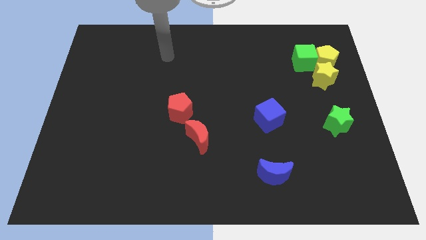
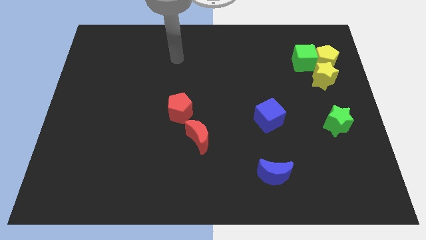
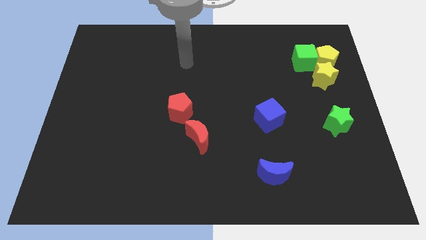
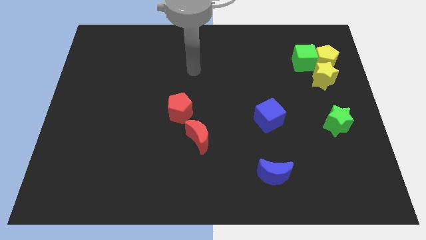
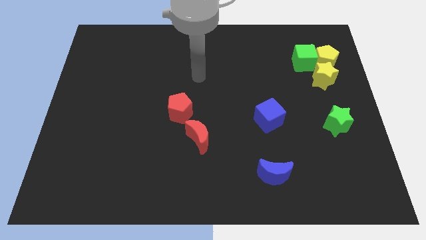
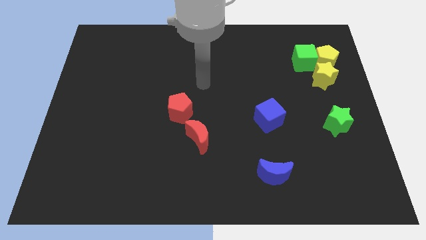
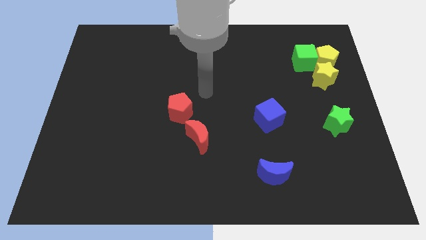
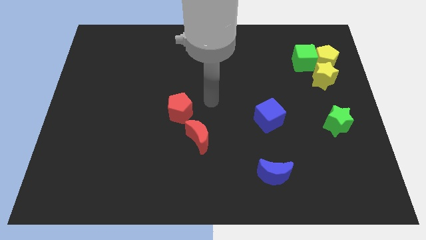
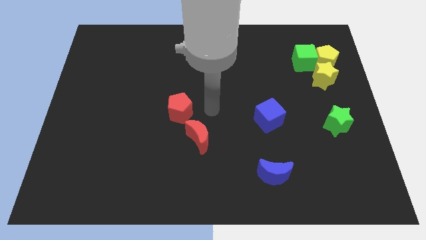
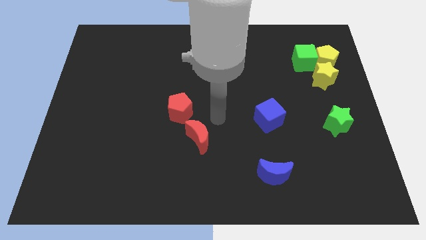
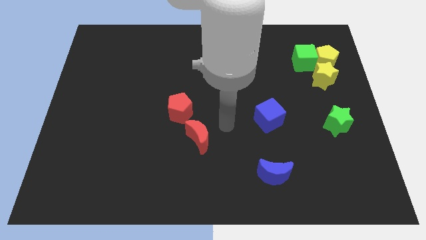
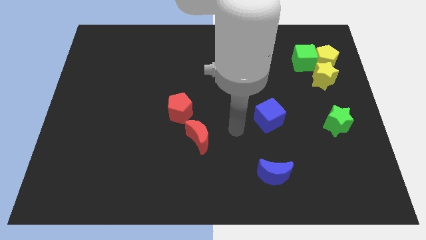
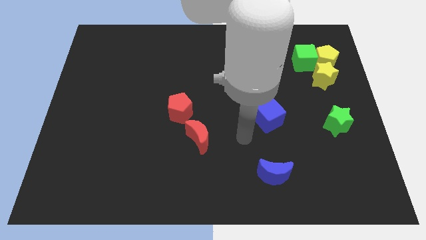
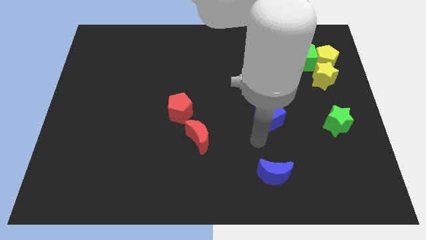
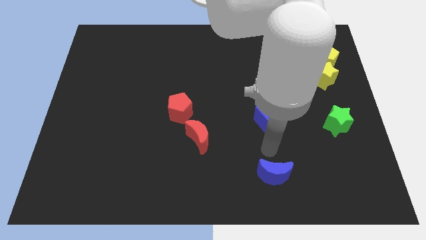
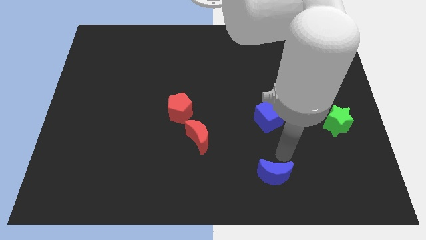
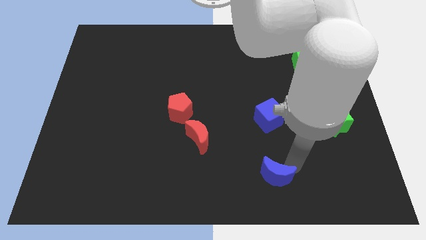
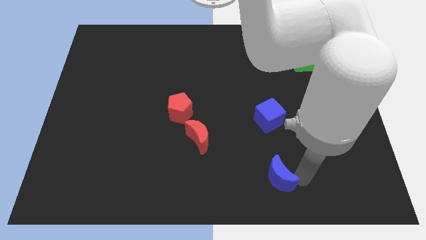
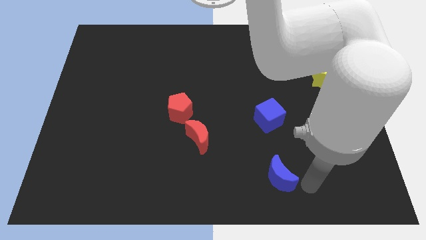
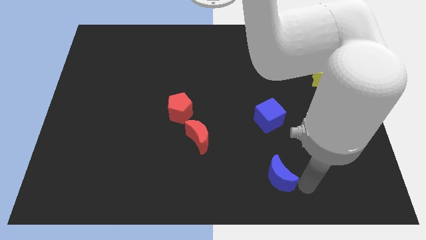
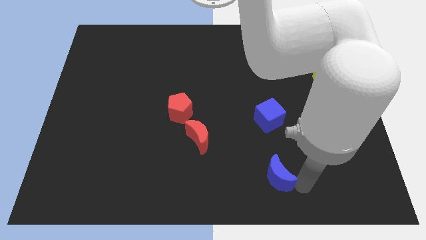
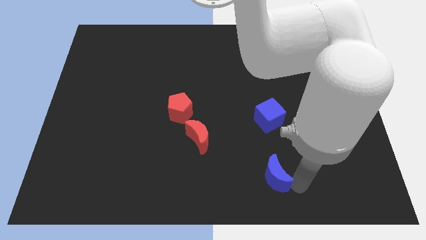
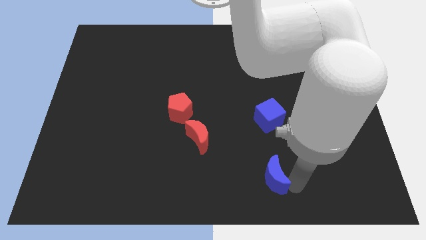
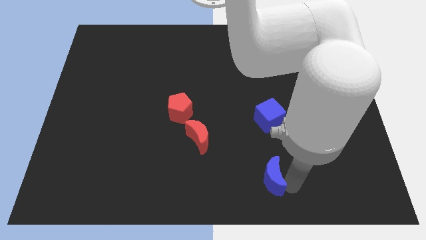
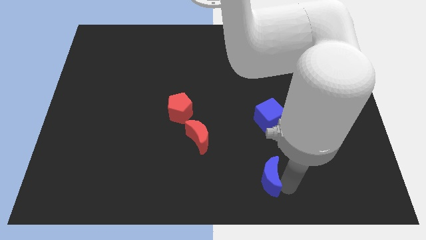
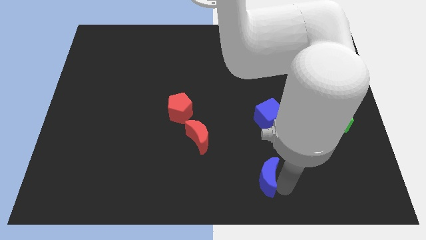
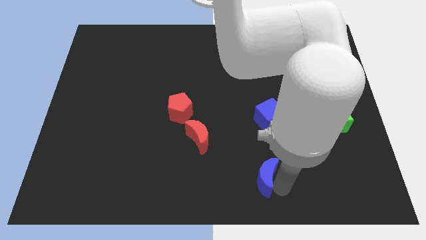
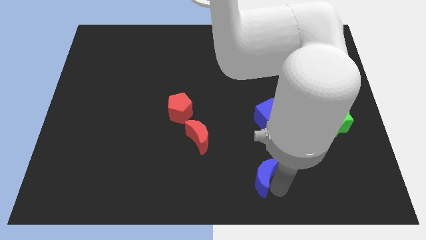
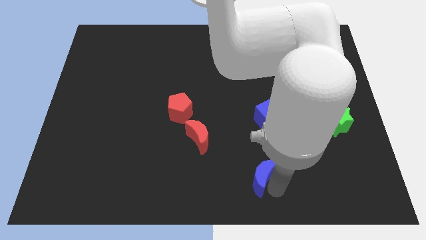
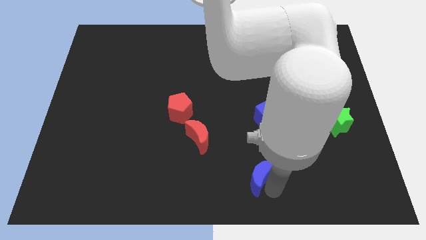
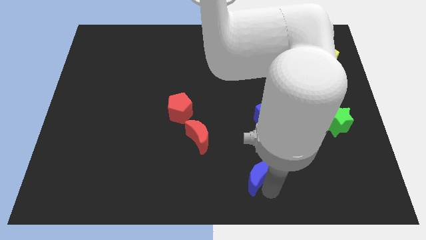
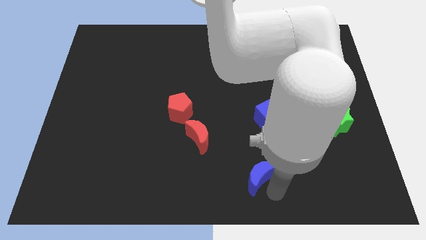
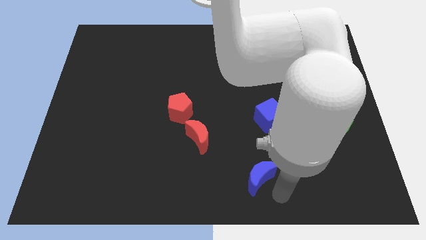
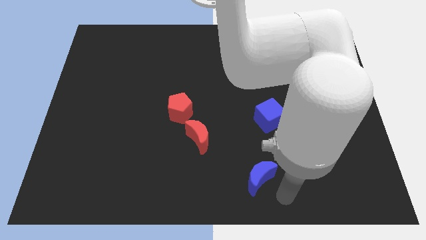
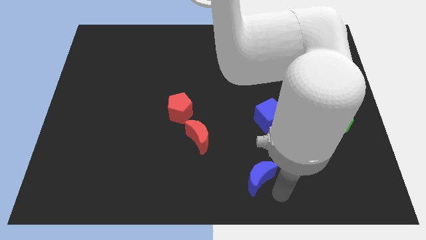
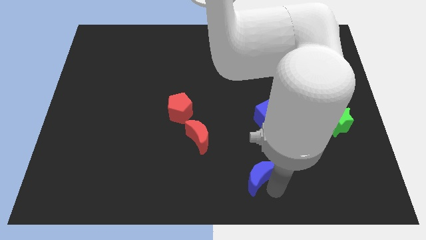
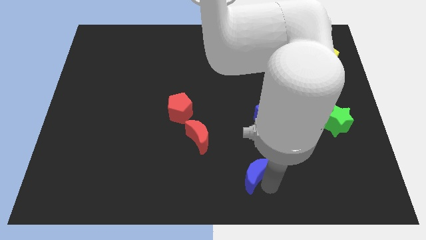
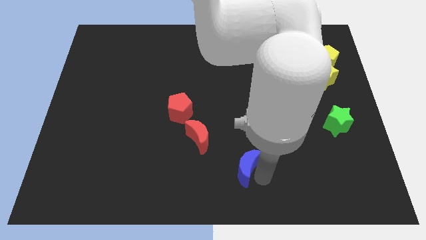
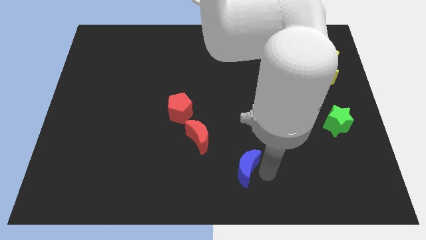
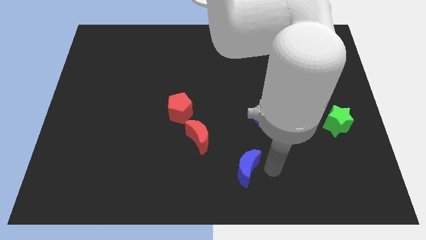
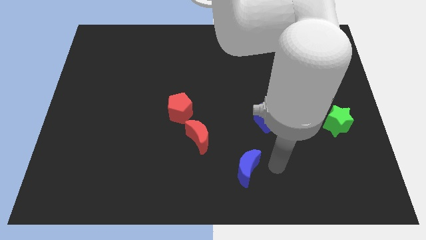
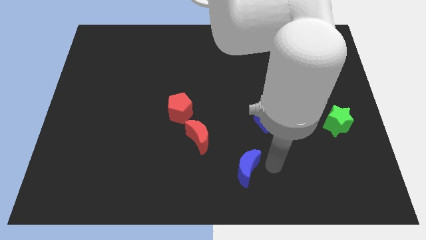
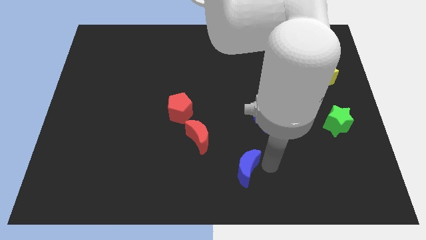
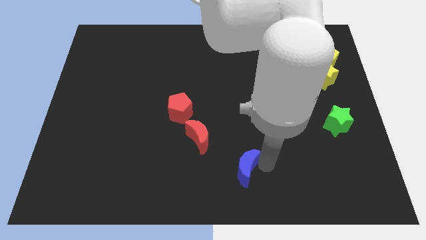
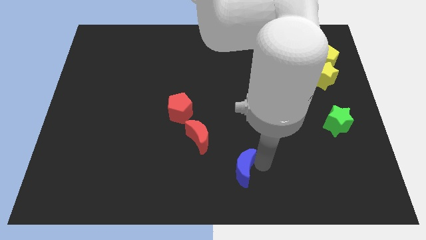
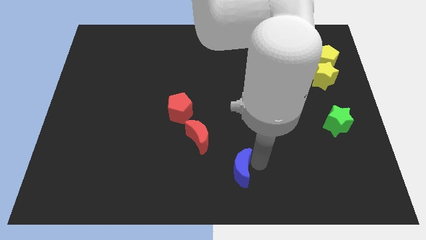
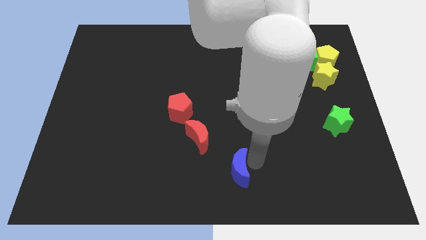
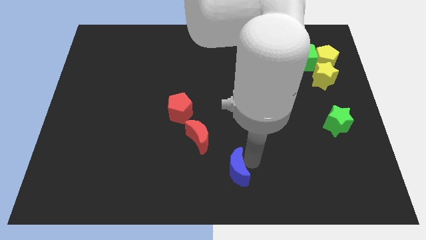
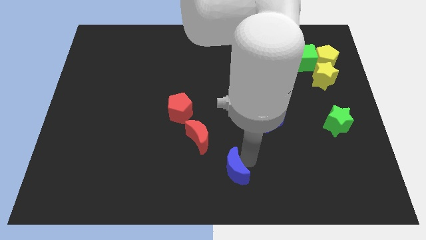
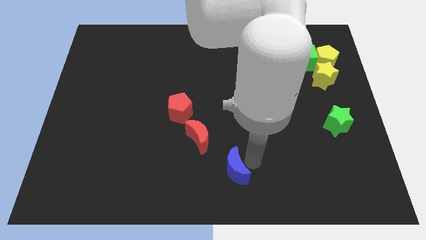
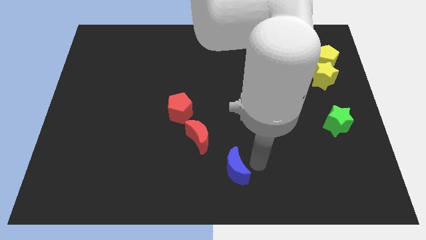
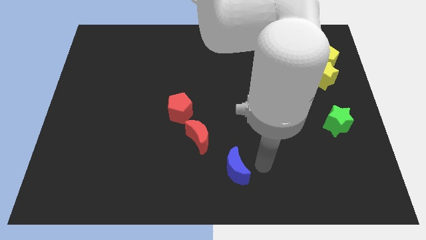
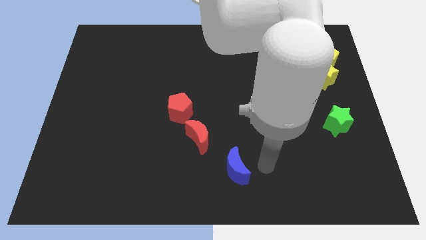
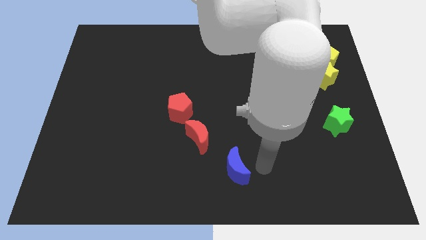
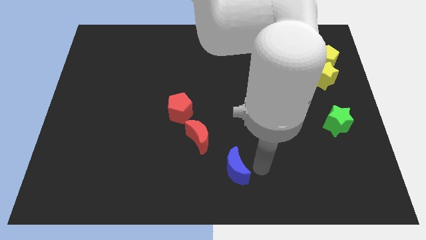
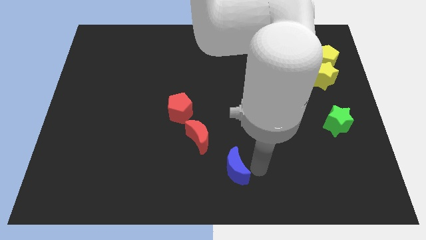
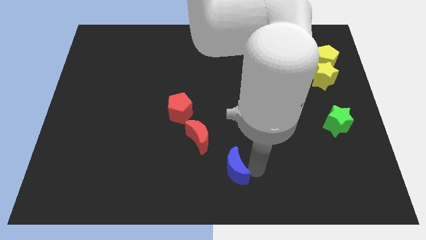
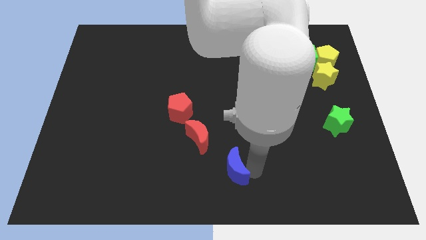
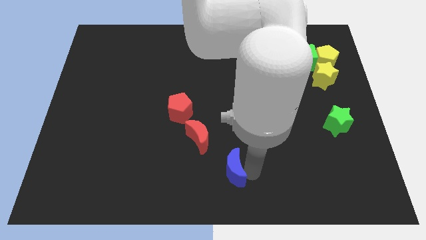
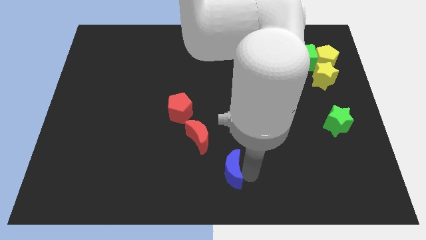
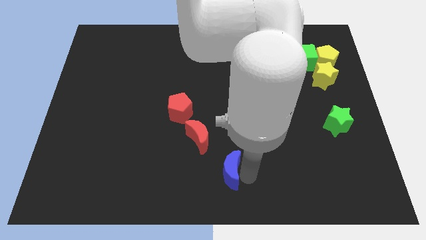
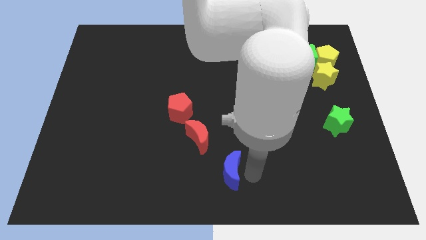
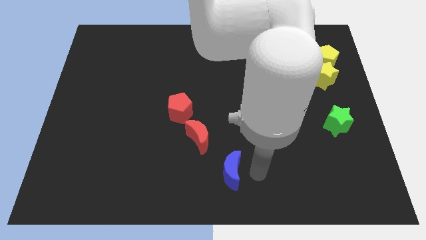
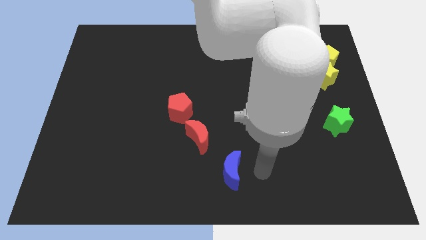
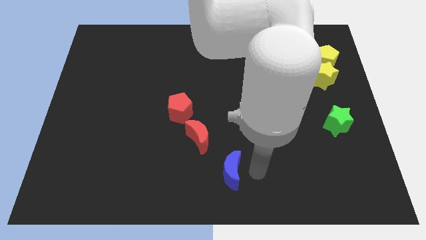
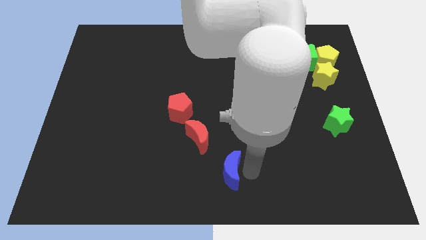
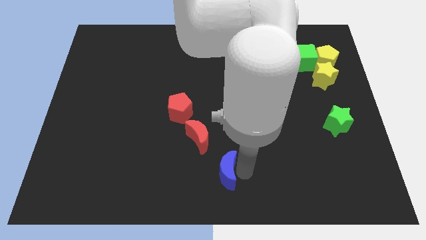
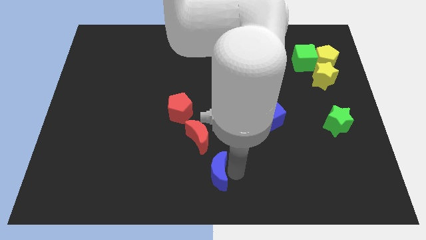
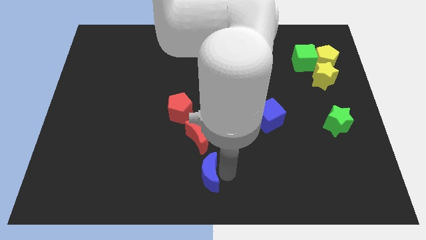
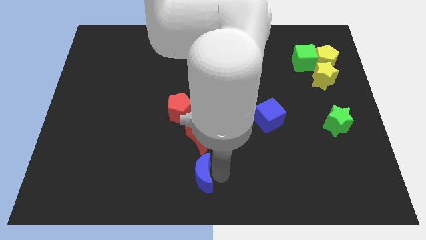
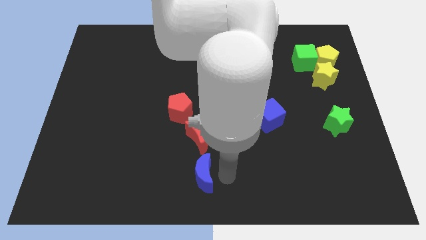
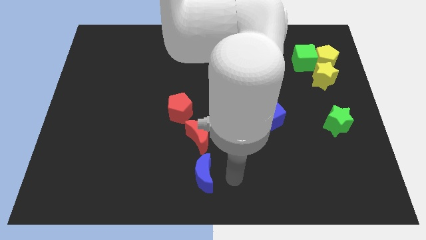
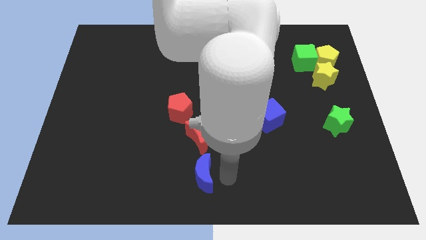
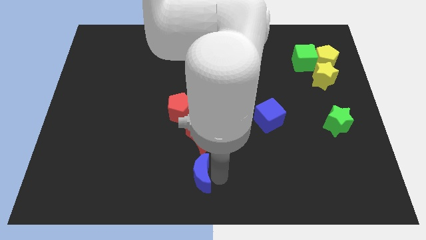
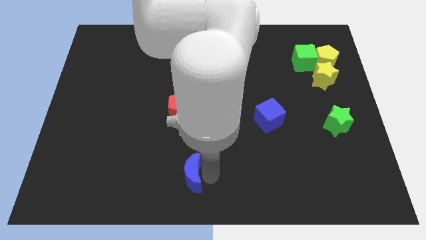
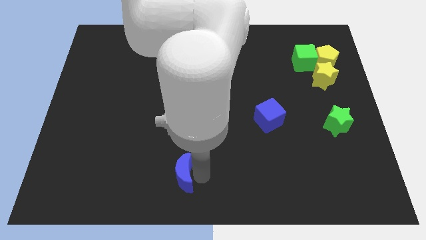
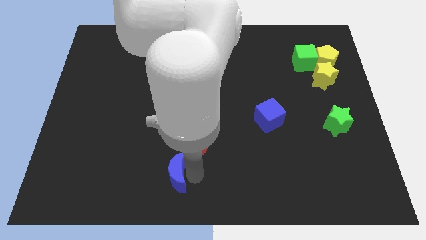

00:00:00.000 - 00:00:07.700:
move the blue moon left

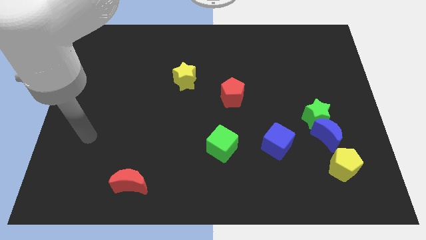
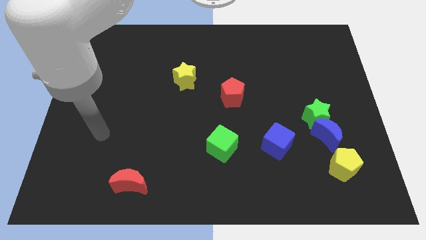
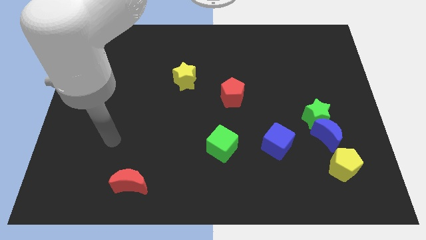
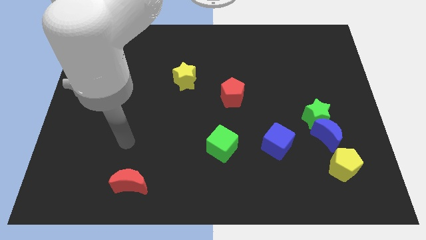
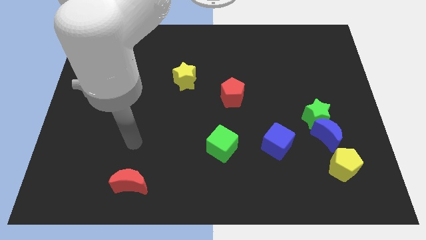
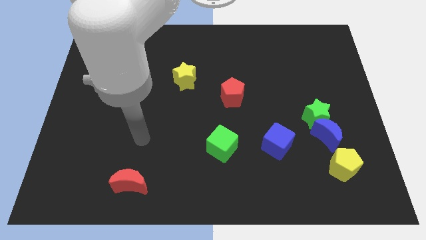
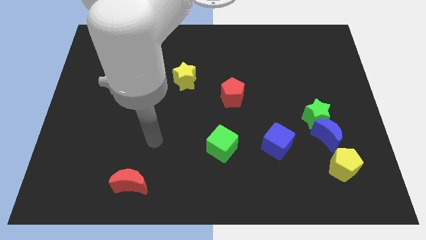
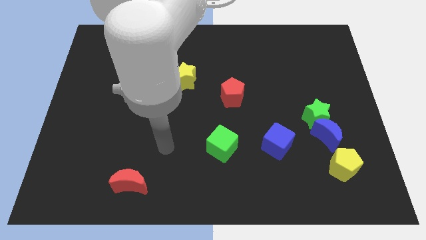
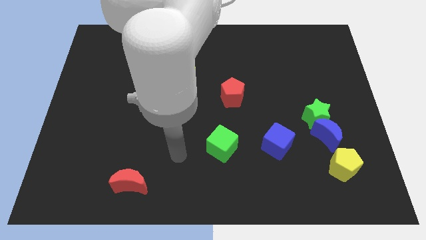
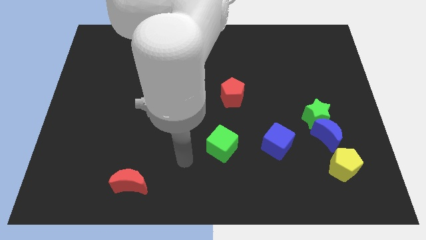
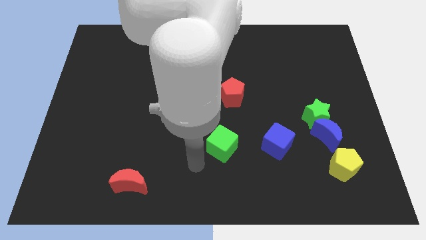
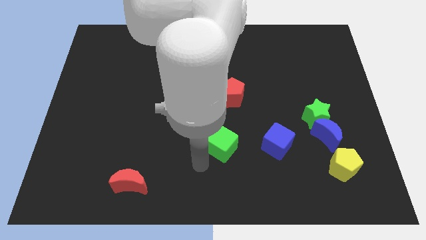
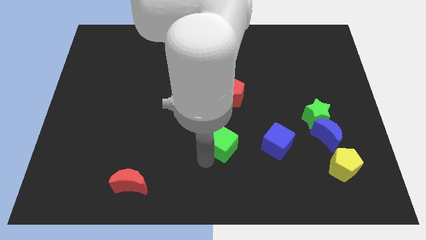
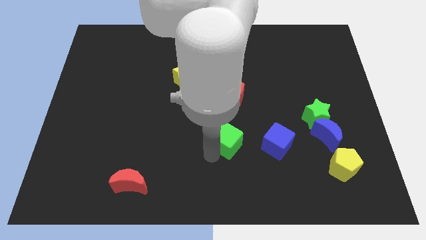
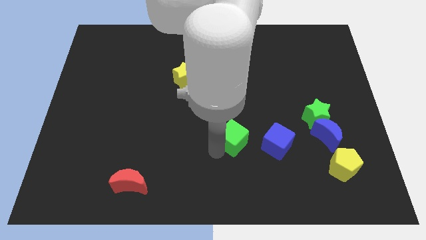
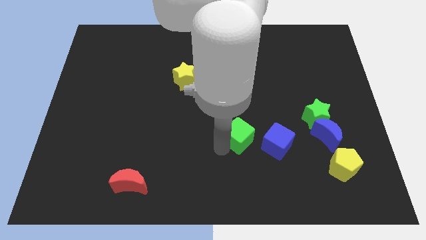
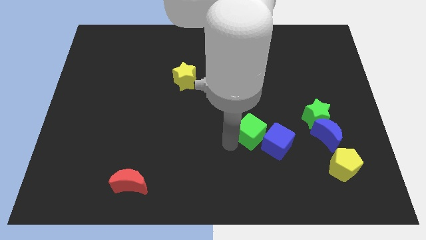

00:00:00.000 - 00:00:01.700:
slide the green cube a bit diagonally up and right
